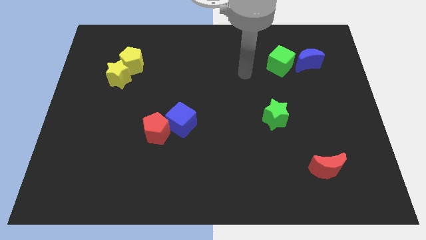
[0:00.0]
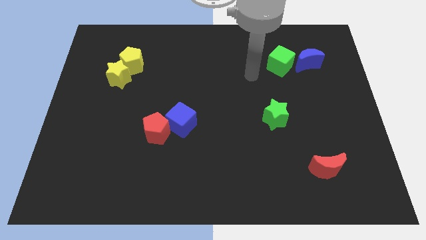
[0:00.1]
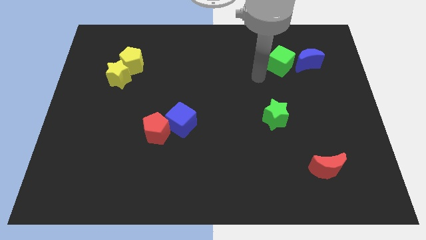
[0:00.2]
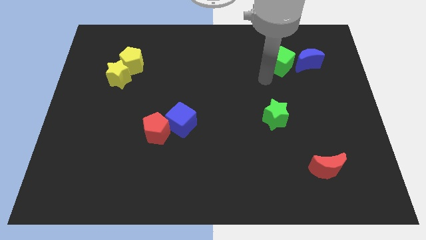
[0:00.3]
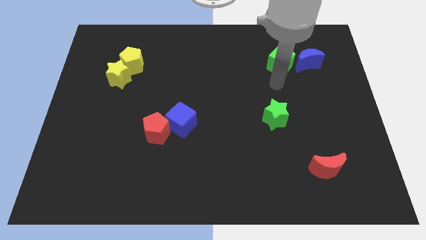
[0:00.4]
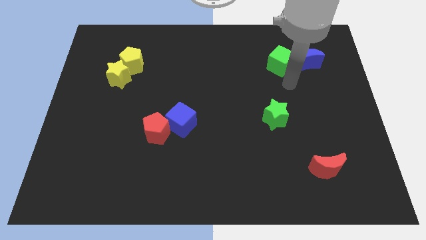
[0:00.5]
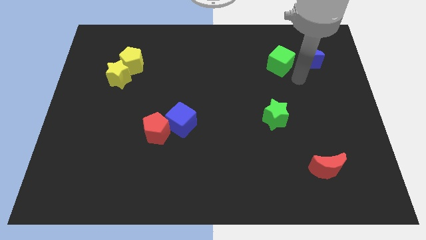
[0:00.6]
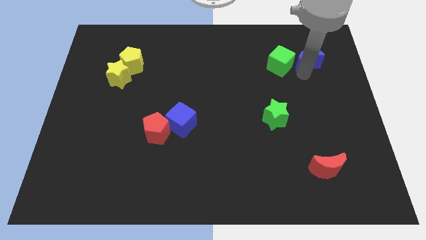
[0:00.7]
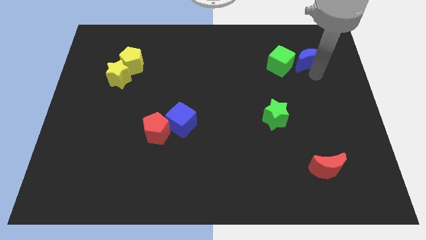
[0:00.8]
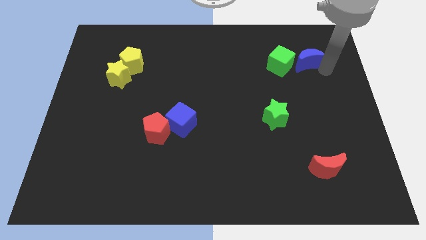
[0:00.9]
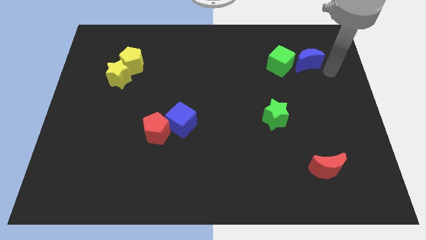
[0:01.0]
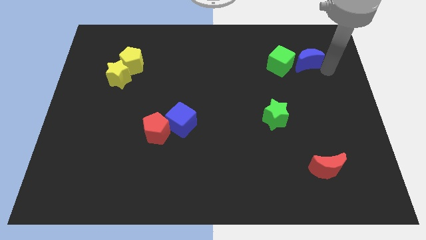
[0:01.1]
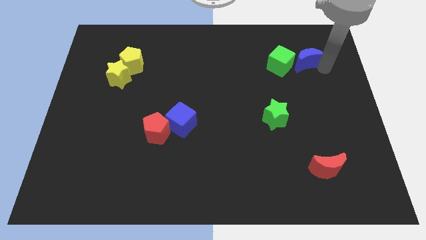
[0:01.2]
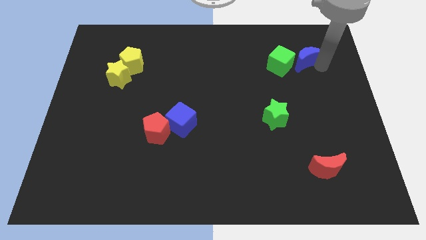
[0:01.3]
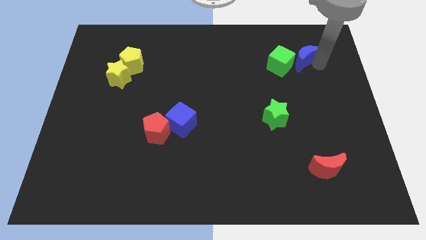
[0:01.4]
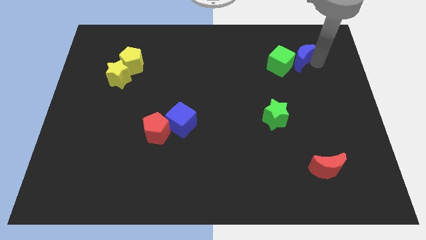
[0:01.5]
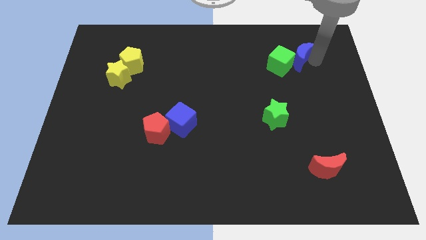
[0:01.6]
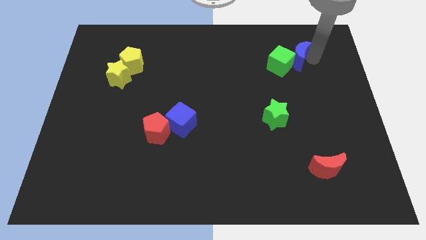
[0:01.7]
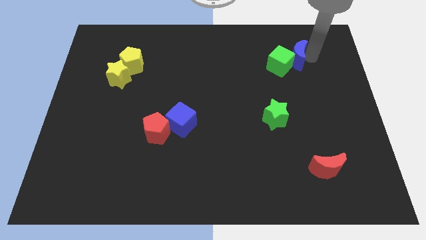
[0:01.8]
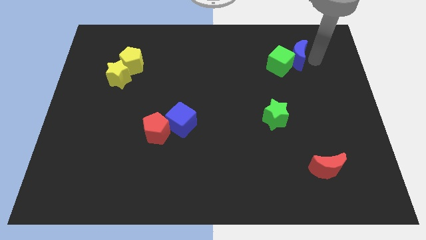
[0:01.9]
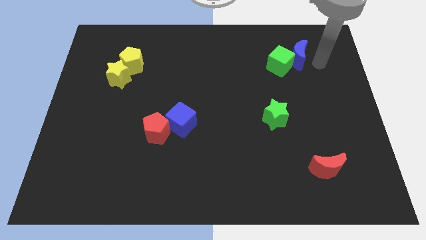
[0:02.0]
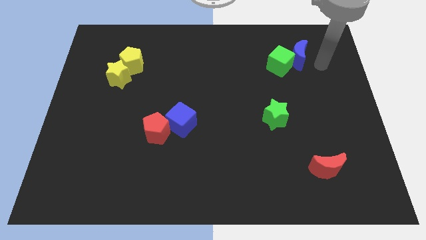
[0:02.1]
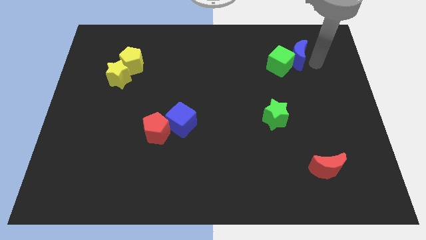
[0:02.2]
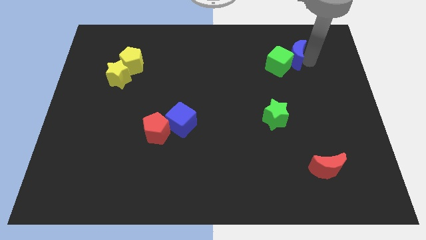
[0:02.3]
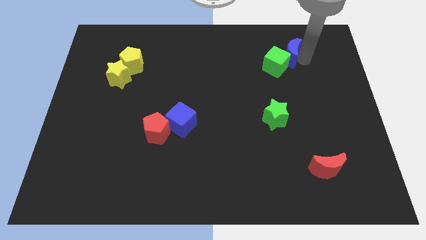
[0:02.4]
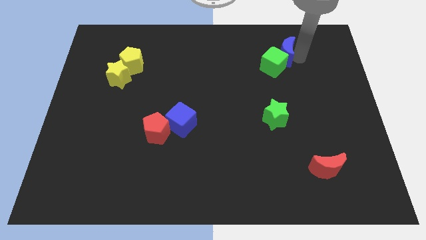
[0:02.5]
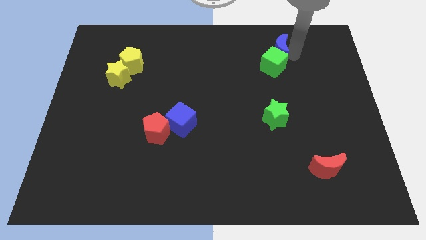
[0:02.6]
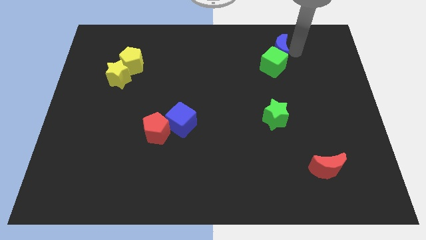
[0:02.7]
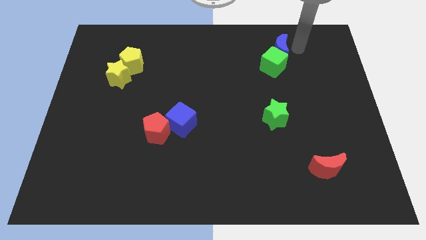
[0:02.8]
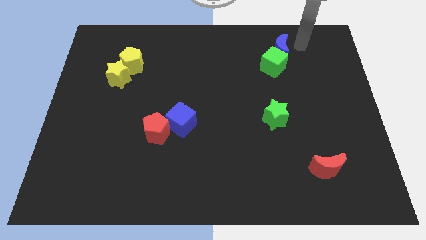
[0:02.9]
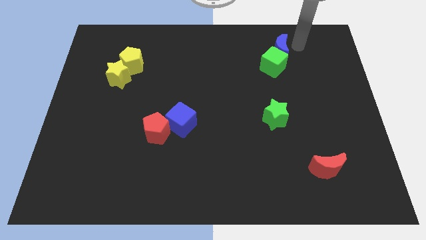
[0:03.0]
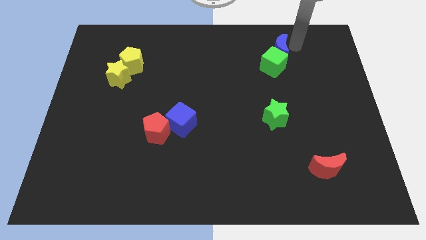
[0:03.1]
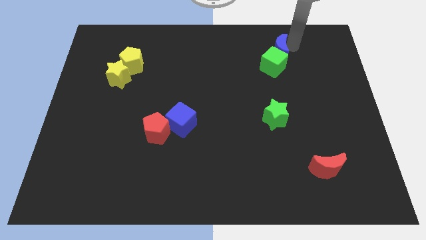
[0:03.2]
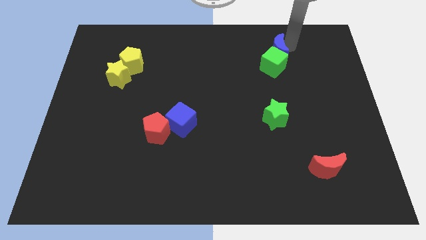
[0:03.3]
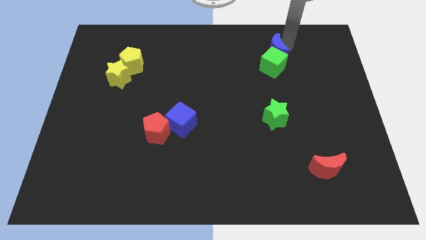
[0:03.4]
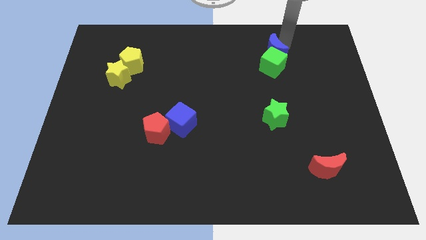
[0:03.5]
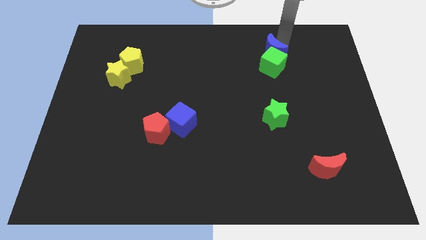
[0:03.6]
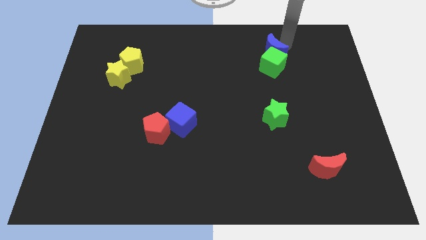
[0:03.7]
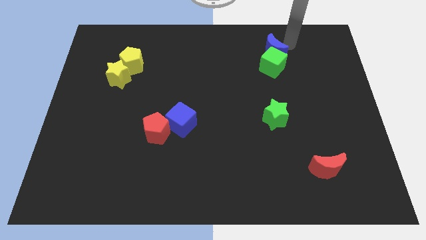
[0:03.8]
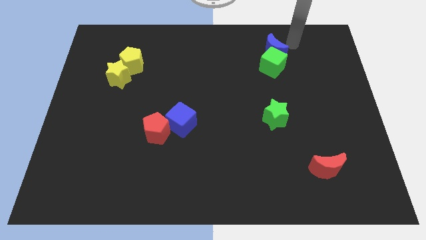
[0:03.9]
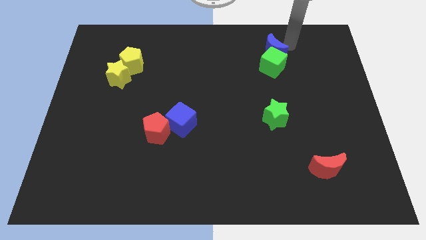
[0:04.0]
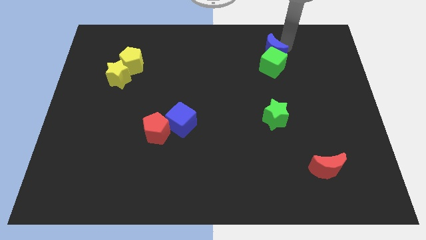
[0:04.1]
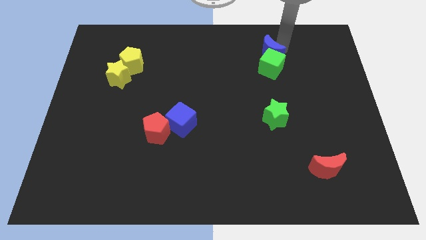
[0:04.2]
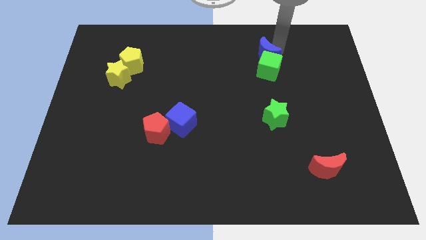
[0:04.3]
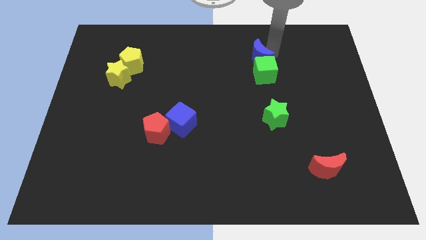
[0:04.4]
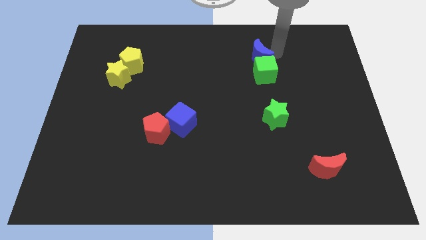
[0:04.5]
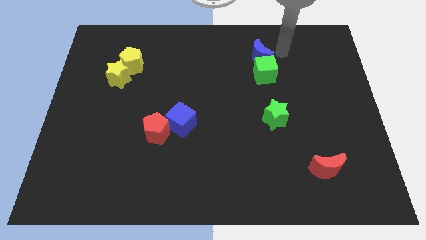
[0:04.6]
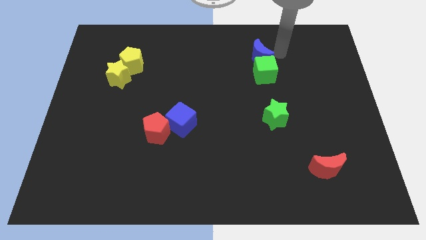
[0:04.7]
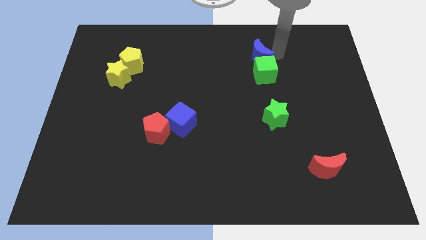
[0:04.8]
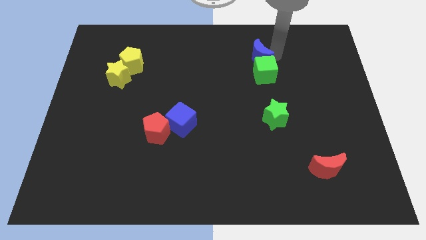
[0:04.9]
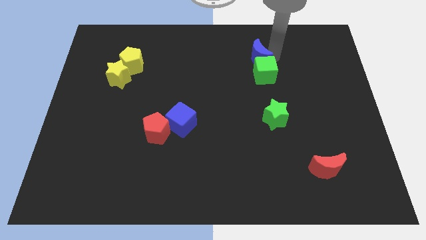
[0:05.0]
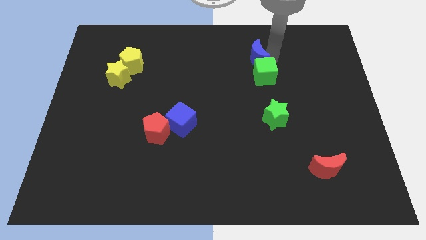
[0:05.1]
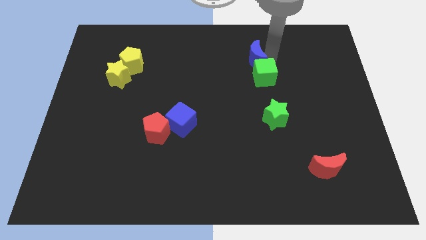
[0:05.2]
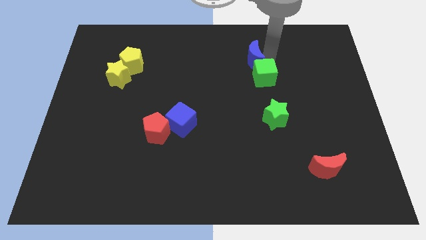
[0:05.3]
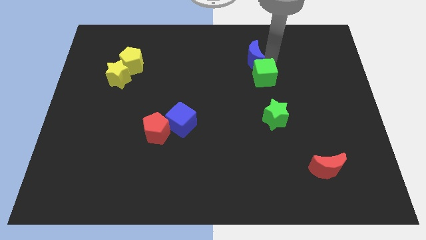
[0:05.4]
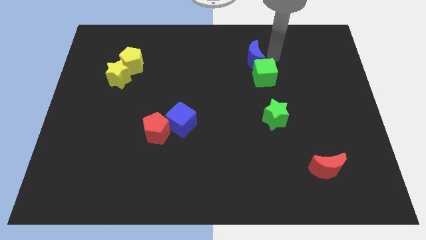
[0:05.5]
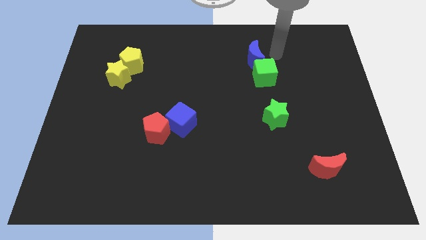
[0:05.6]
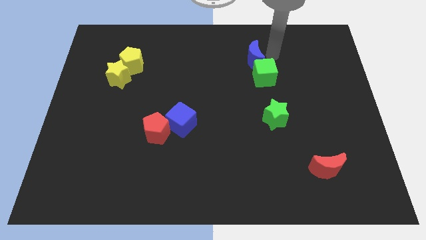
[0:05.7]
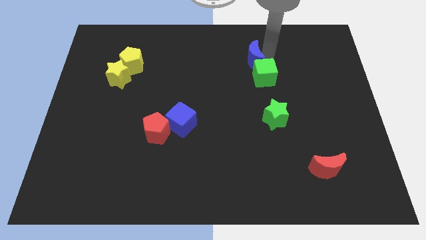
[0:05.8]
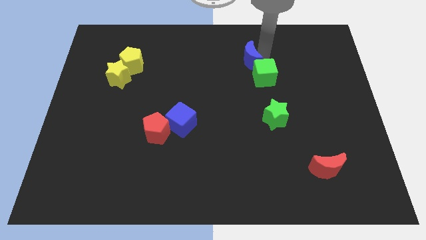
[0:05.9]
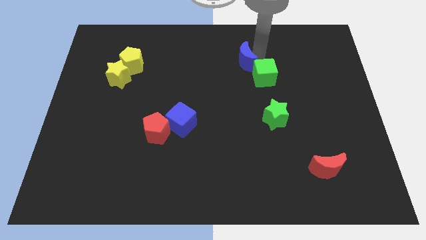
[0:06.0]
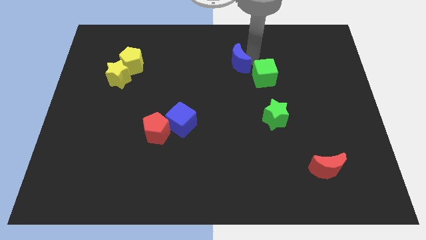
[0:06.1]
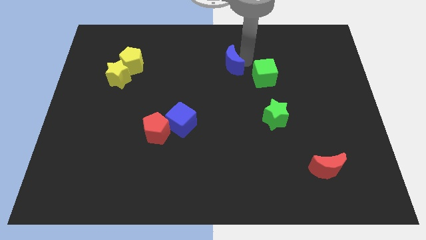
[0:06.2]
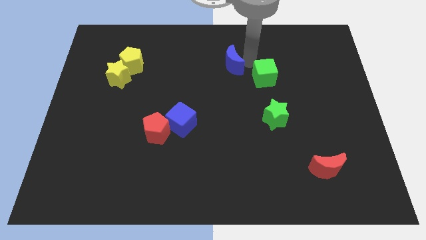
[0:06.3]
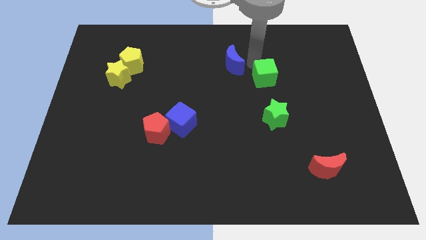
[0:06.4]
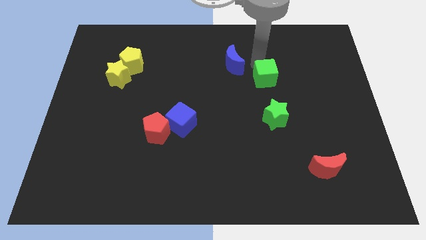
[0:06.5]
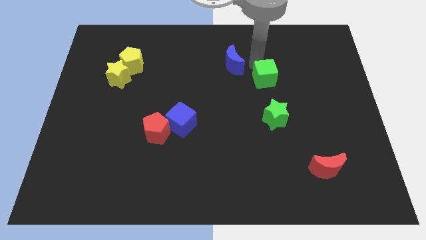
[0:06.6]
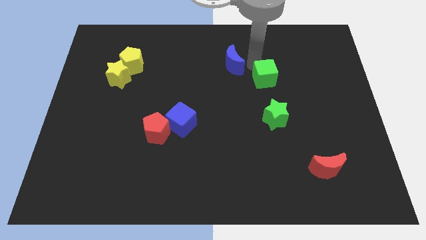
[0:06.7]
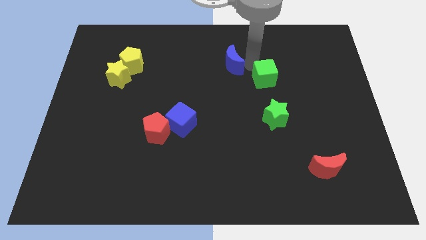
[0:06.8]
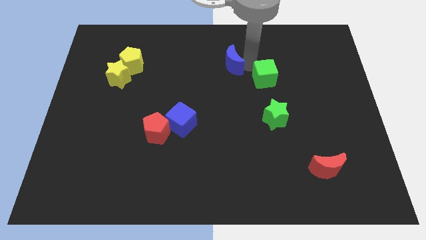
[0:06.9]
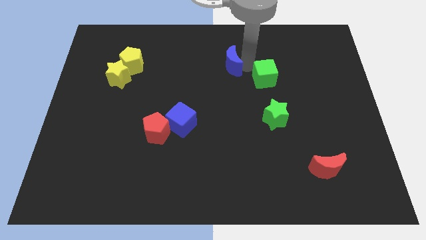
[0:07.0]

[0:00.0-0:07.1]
slide the blue moon left

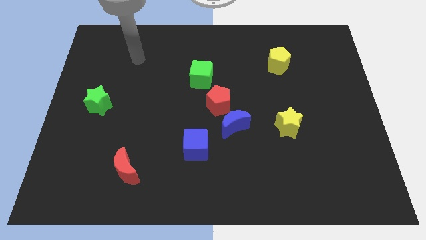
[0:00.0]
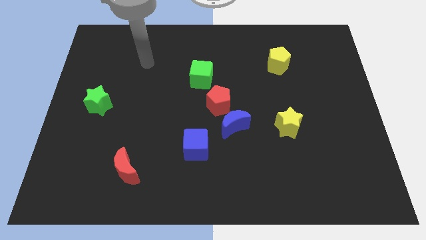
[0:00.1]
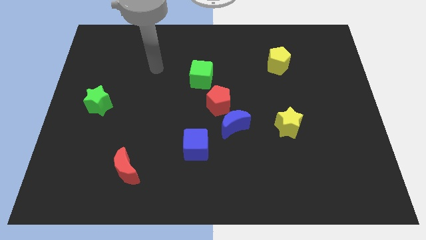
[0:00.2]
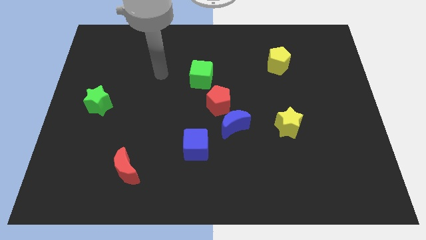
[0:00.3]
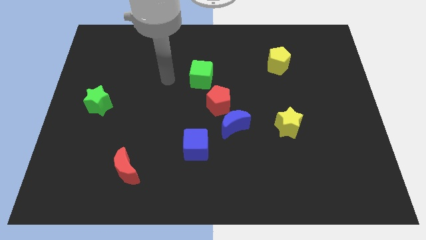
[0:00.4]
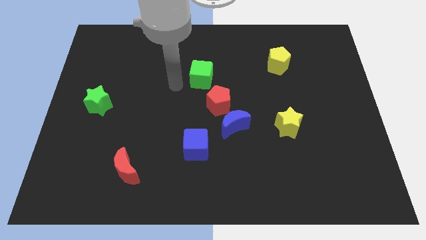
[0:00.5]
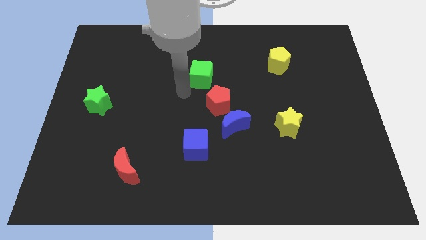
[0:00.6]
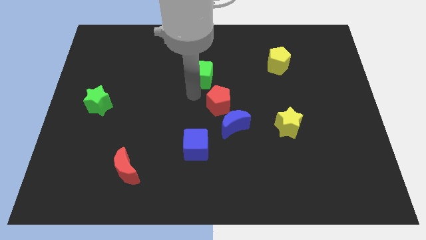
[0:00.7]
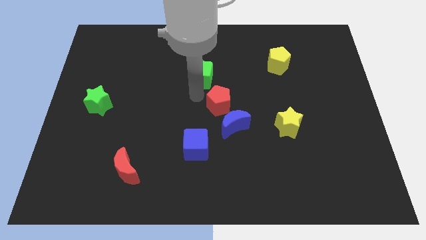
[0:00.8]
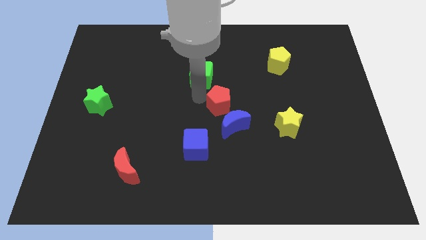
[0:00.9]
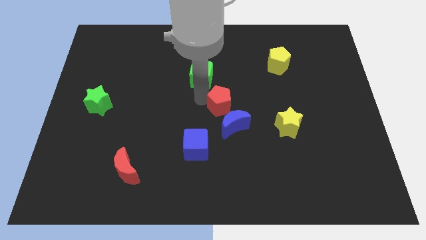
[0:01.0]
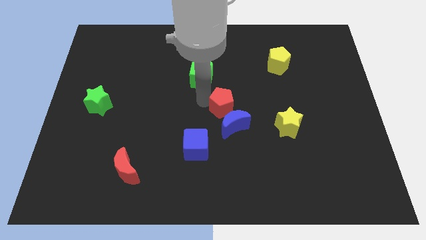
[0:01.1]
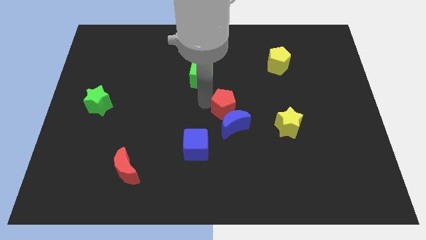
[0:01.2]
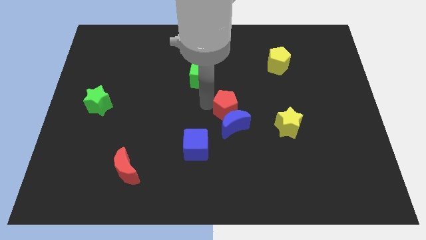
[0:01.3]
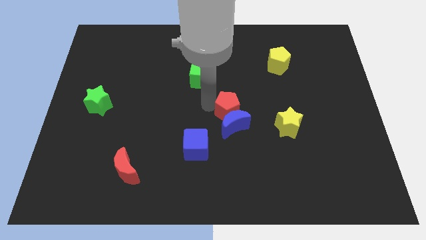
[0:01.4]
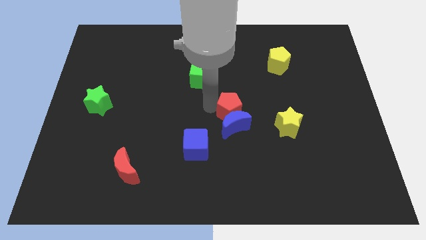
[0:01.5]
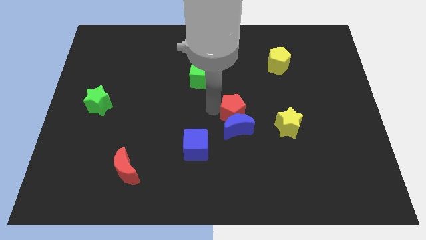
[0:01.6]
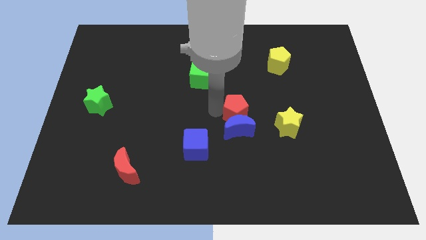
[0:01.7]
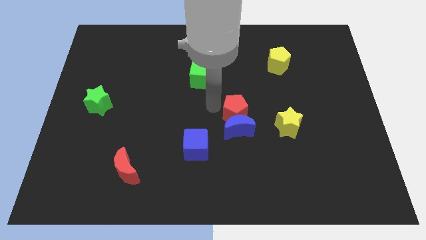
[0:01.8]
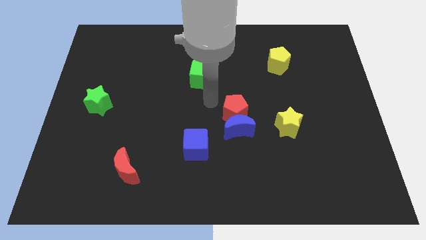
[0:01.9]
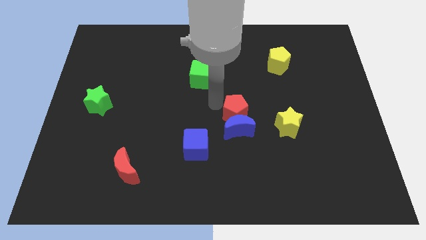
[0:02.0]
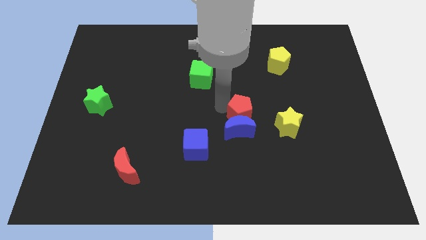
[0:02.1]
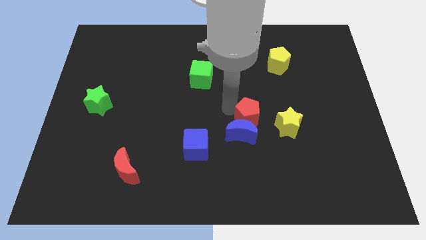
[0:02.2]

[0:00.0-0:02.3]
slightly push the red pentagon down and then right
